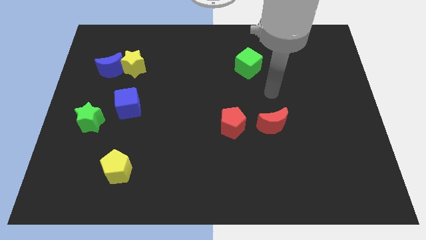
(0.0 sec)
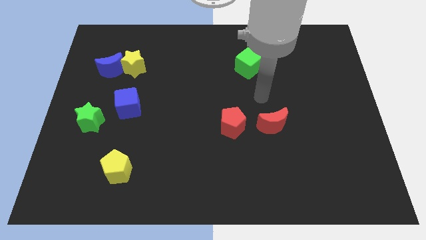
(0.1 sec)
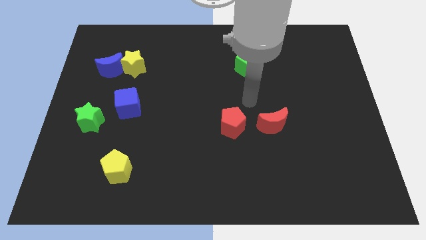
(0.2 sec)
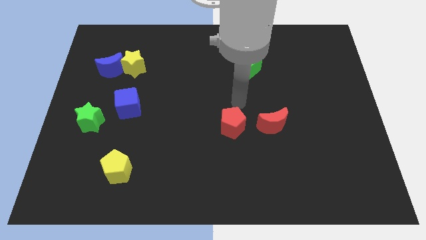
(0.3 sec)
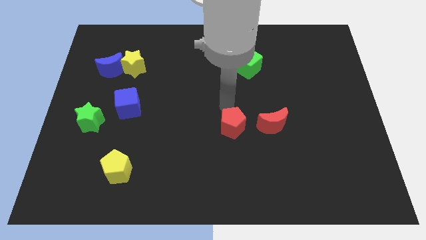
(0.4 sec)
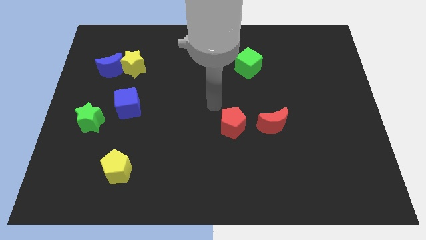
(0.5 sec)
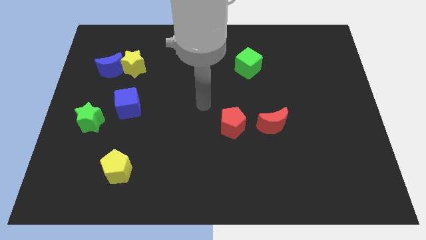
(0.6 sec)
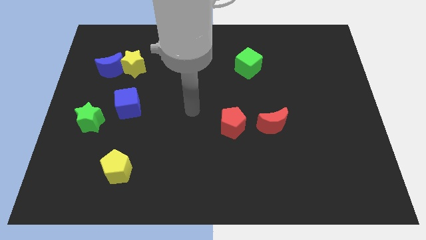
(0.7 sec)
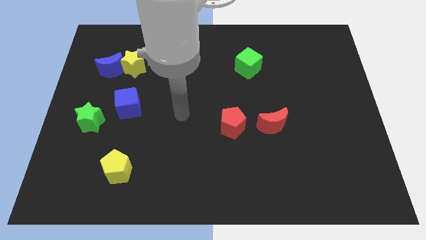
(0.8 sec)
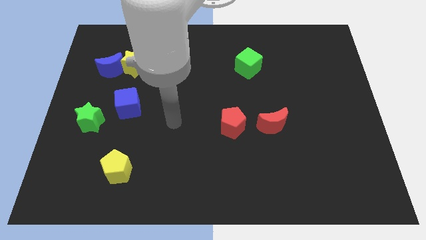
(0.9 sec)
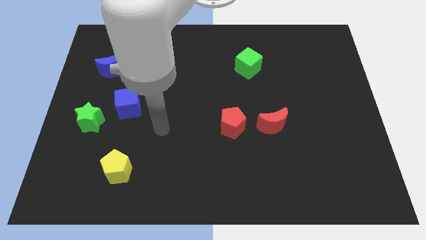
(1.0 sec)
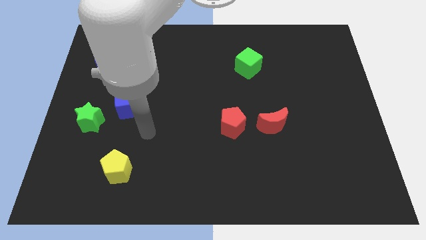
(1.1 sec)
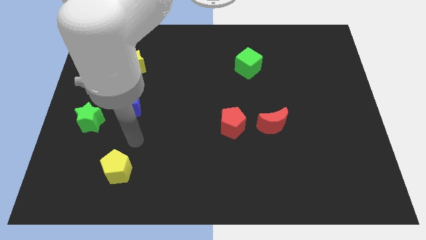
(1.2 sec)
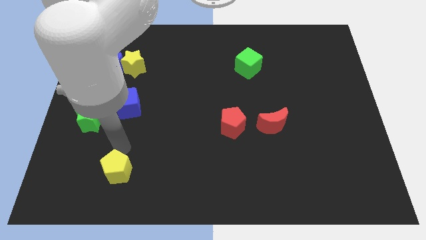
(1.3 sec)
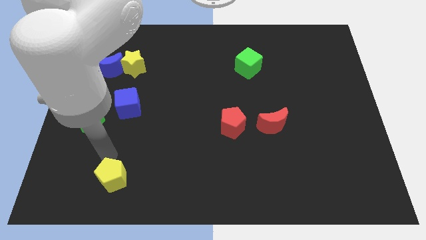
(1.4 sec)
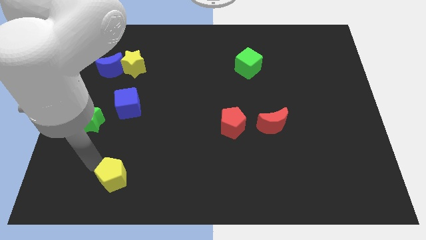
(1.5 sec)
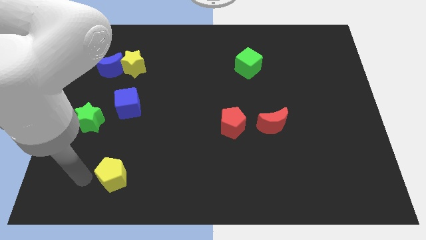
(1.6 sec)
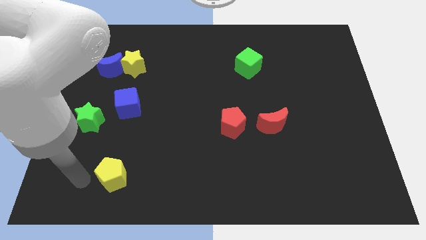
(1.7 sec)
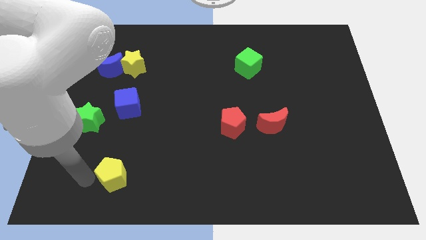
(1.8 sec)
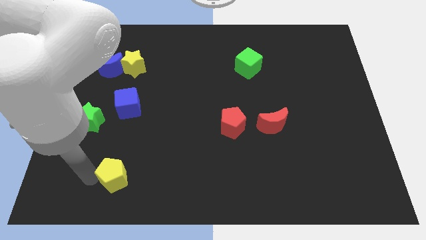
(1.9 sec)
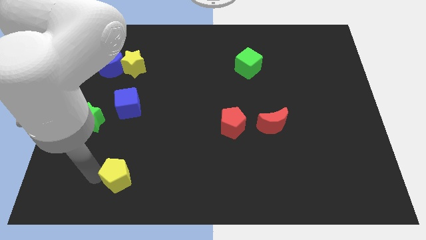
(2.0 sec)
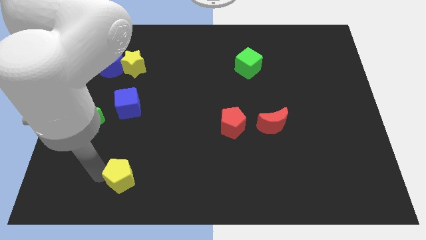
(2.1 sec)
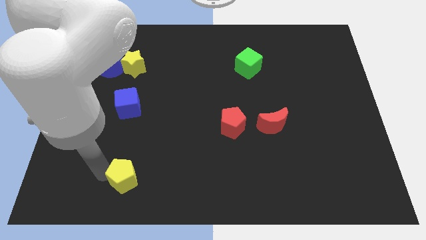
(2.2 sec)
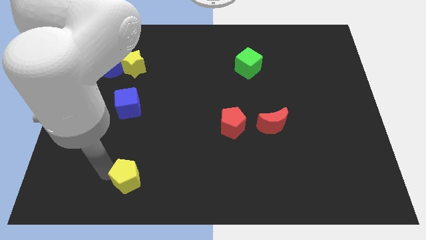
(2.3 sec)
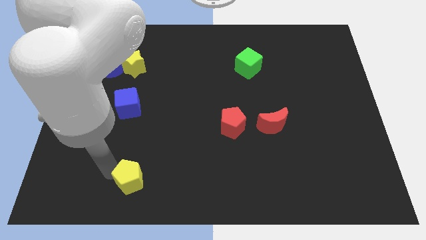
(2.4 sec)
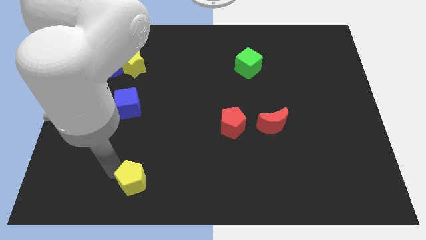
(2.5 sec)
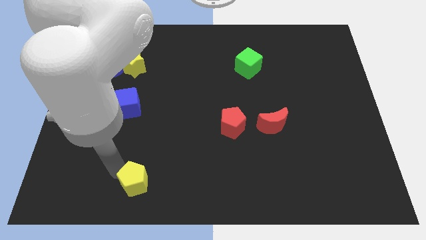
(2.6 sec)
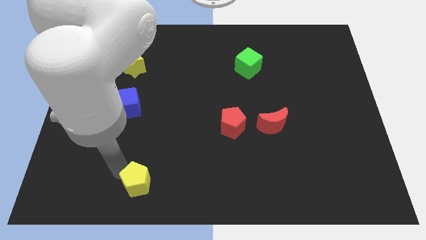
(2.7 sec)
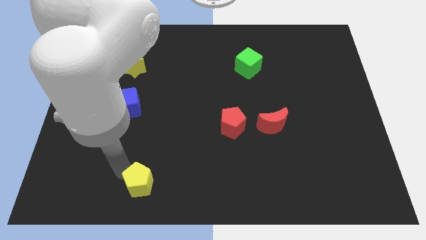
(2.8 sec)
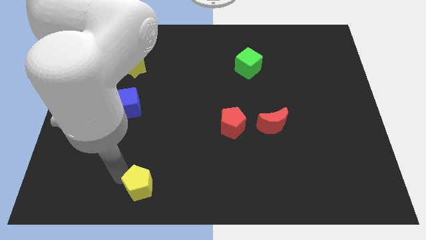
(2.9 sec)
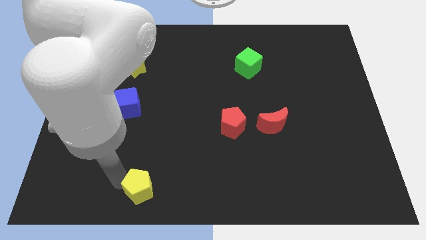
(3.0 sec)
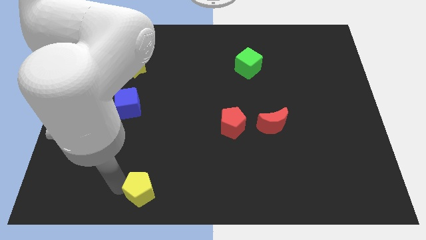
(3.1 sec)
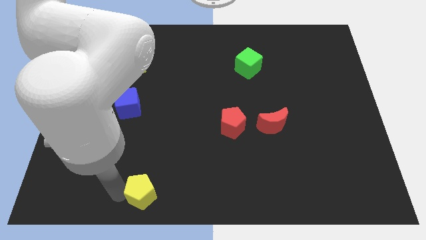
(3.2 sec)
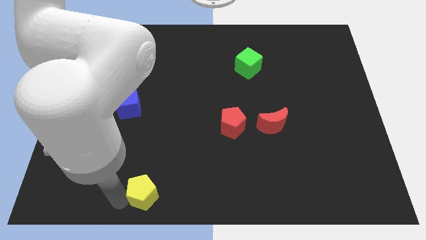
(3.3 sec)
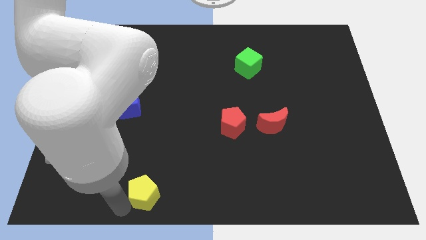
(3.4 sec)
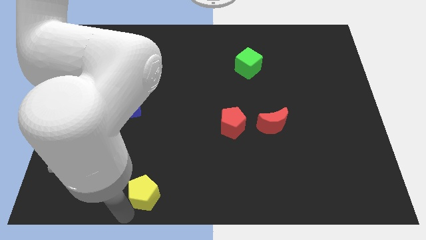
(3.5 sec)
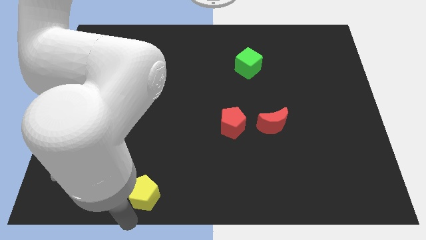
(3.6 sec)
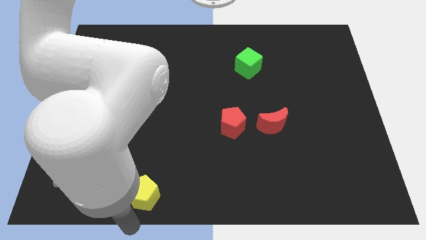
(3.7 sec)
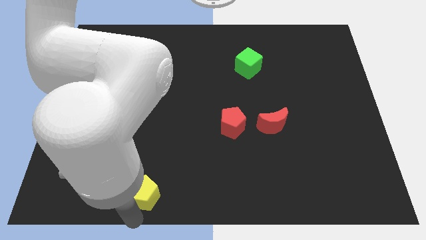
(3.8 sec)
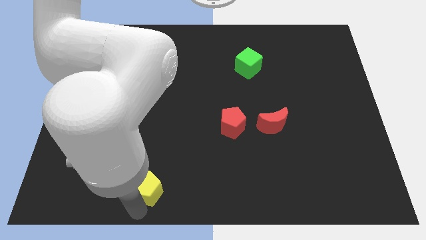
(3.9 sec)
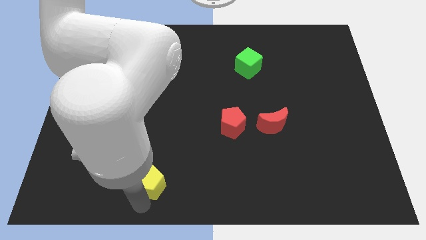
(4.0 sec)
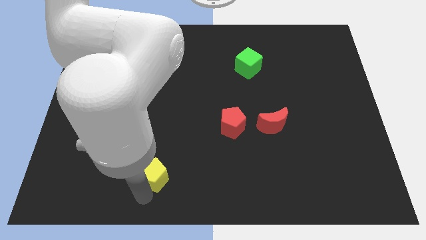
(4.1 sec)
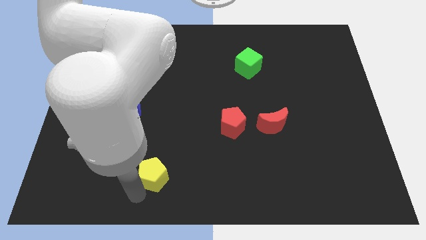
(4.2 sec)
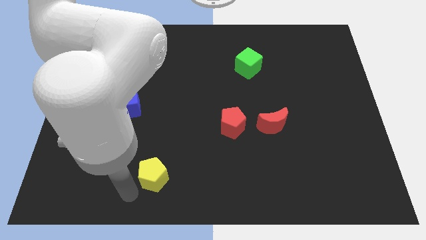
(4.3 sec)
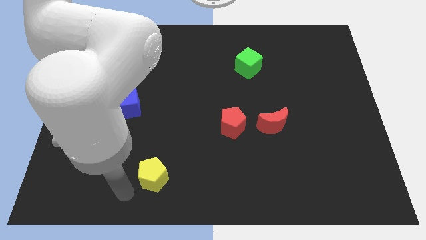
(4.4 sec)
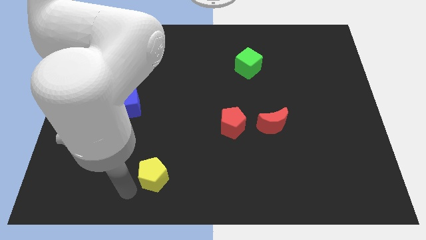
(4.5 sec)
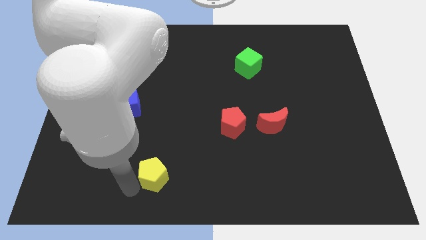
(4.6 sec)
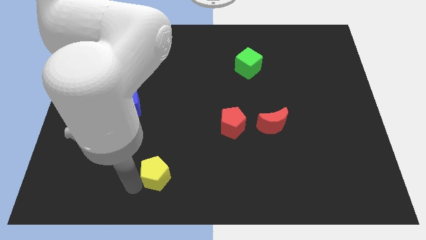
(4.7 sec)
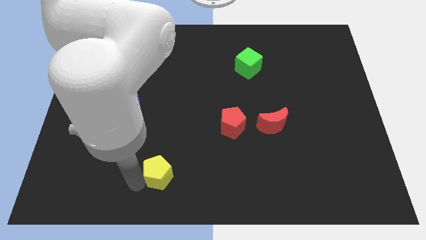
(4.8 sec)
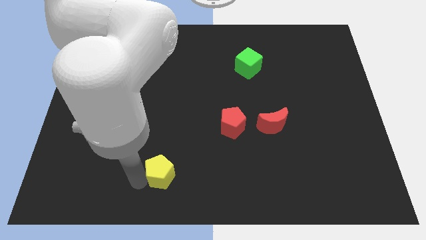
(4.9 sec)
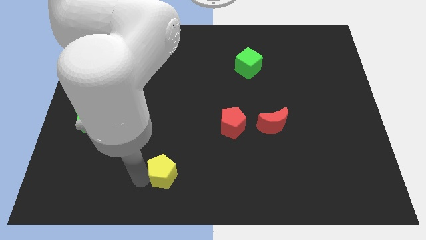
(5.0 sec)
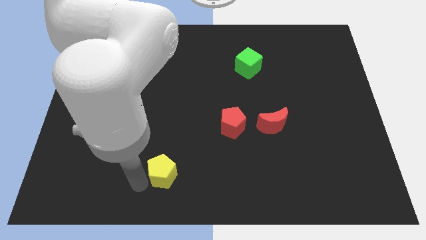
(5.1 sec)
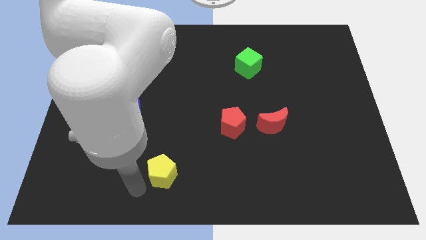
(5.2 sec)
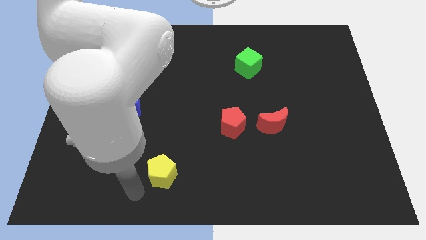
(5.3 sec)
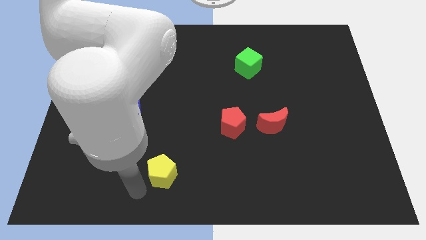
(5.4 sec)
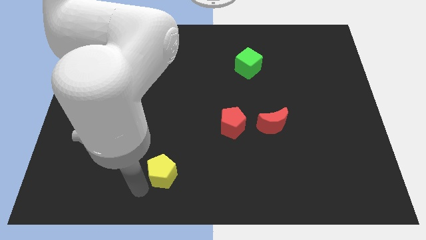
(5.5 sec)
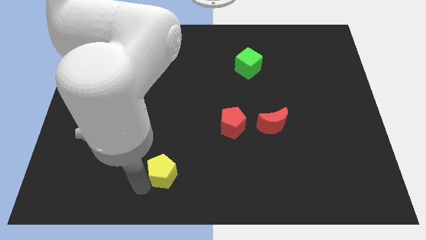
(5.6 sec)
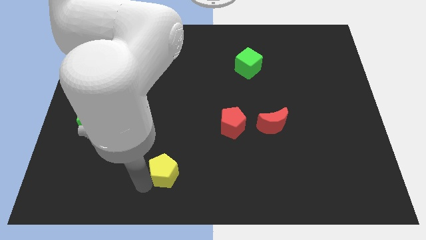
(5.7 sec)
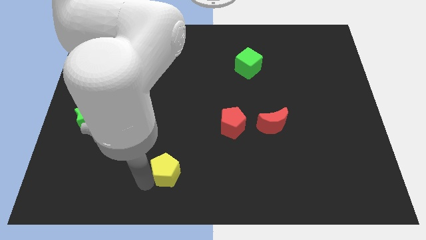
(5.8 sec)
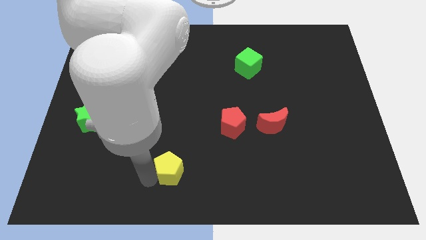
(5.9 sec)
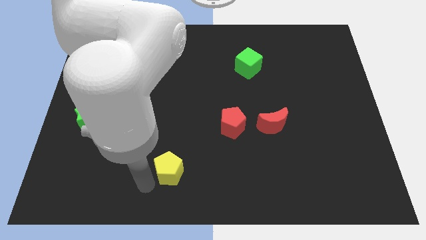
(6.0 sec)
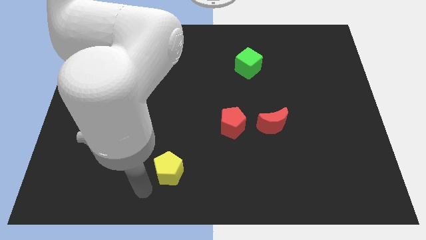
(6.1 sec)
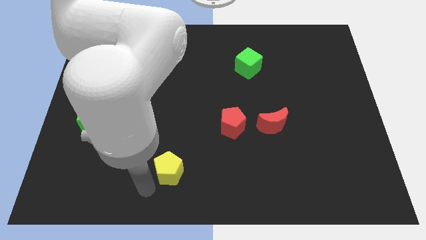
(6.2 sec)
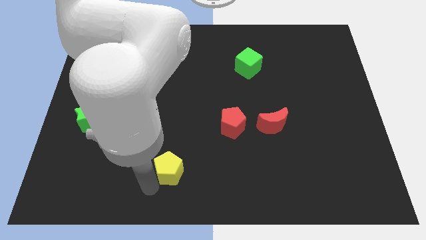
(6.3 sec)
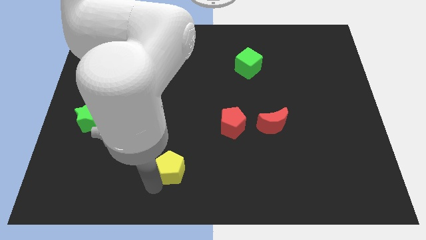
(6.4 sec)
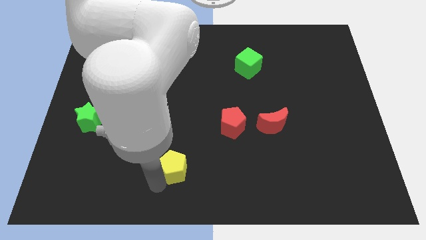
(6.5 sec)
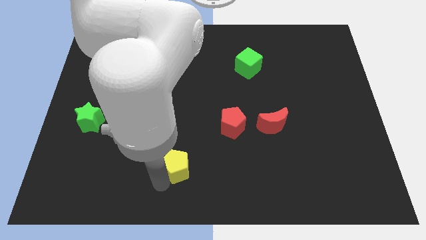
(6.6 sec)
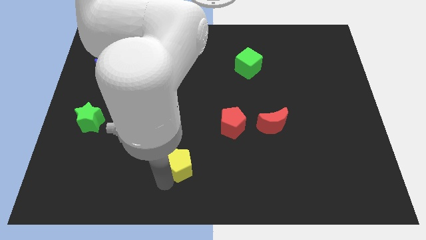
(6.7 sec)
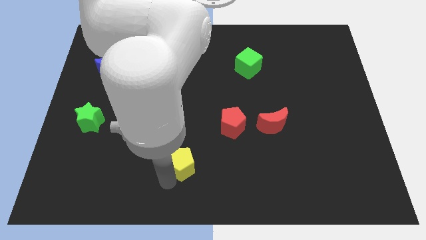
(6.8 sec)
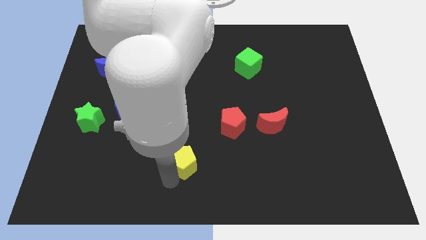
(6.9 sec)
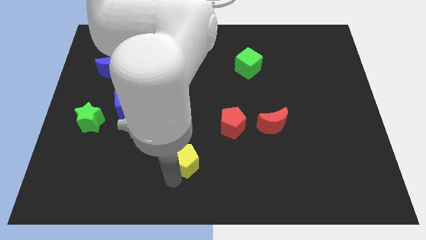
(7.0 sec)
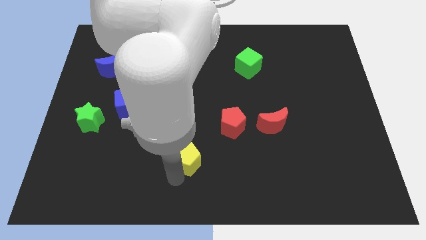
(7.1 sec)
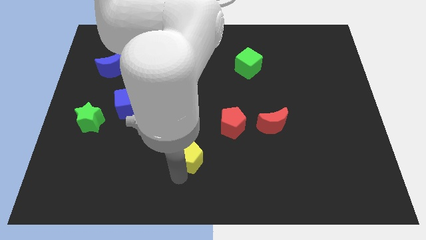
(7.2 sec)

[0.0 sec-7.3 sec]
slide the yellow pentagon diagonally down and to the left of the red pentagon
